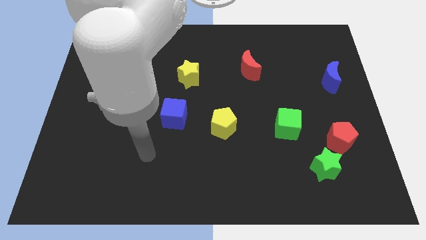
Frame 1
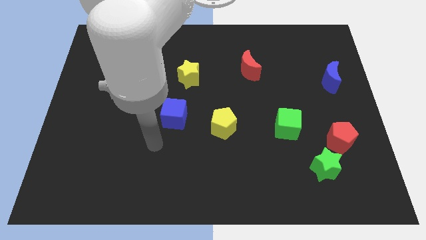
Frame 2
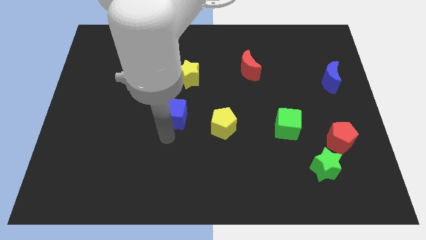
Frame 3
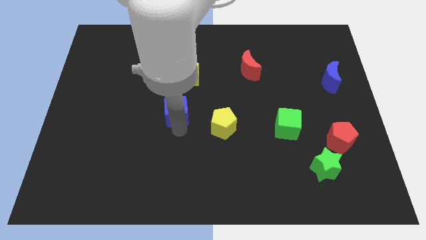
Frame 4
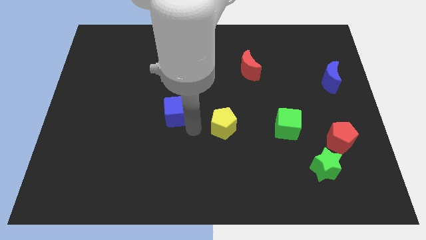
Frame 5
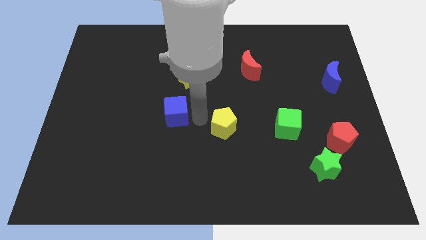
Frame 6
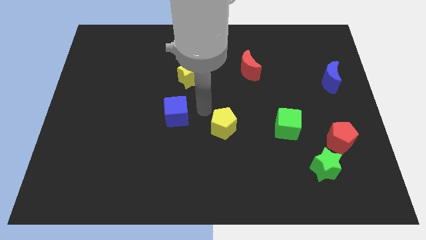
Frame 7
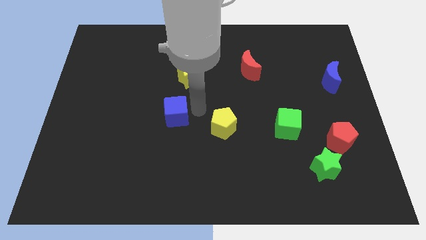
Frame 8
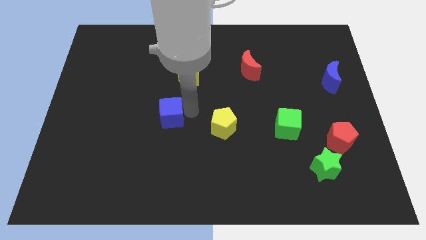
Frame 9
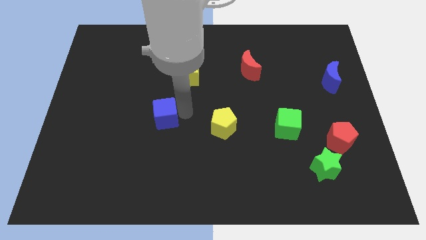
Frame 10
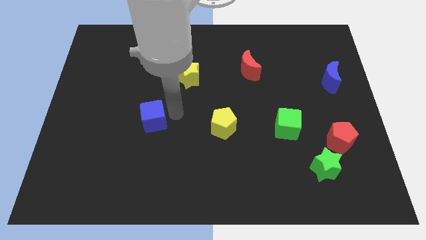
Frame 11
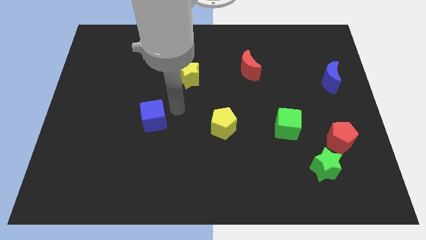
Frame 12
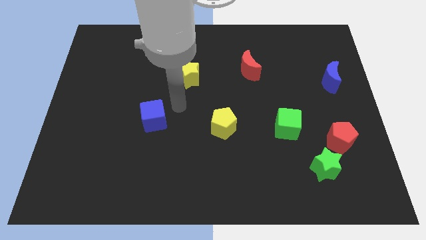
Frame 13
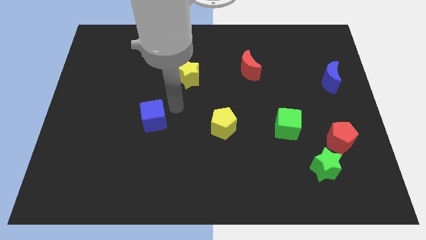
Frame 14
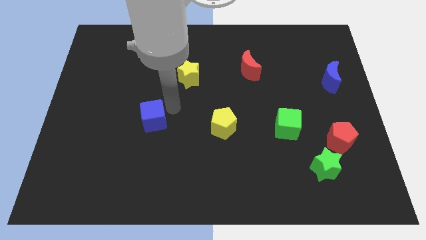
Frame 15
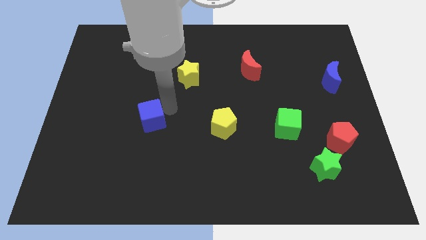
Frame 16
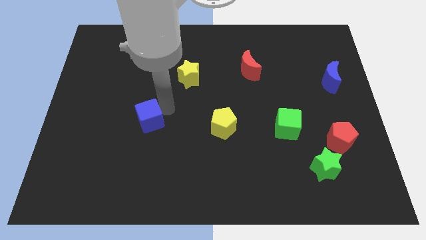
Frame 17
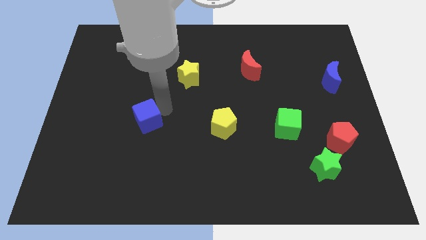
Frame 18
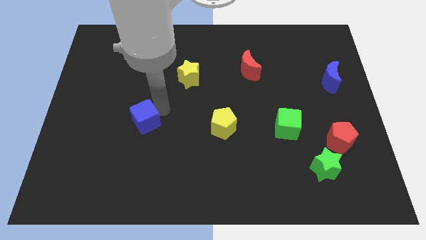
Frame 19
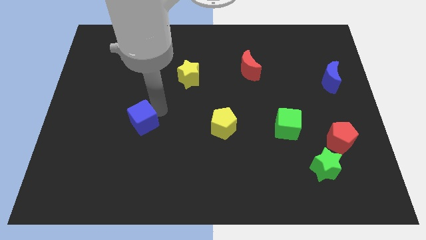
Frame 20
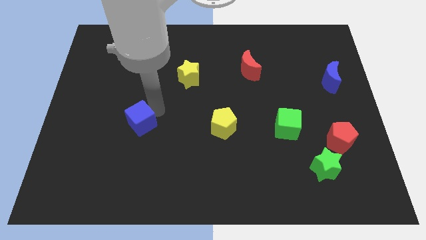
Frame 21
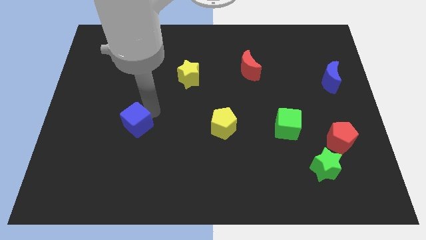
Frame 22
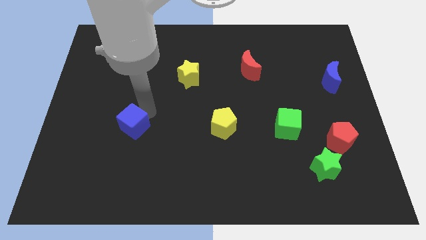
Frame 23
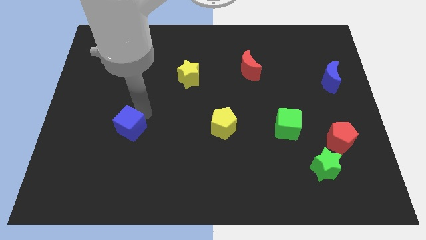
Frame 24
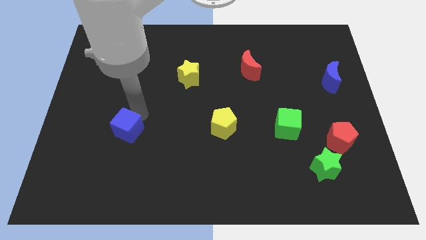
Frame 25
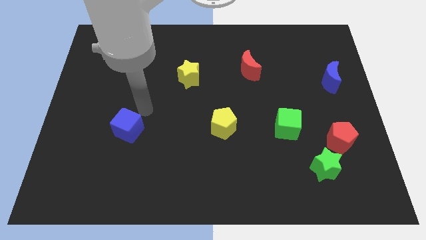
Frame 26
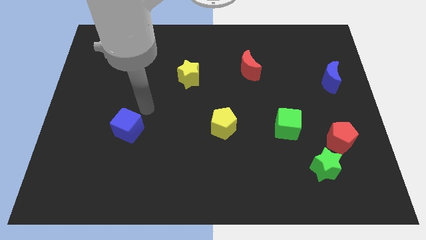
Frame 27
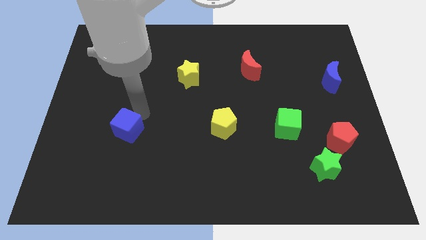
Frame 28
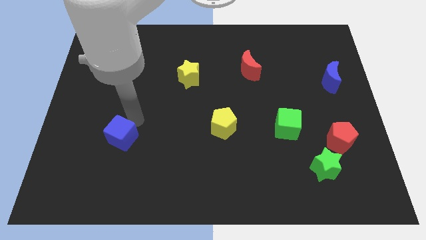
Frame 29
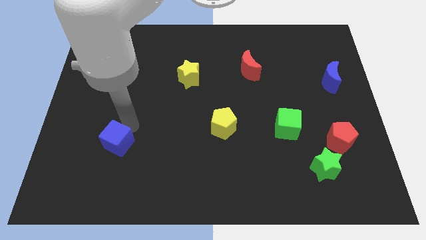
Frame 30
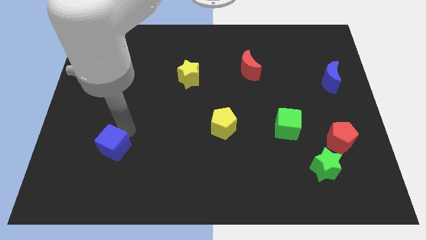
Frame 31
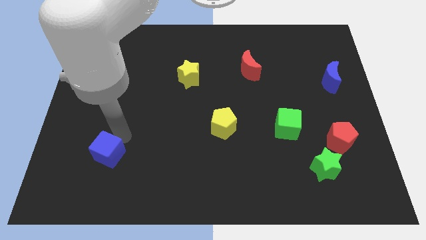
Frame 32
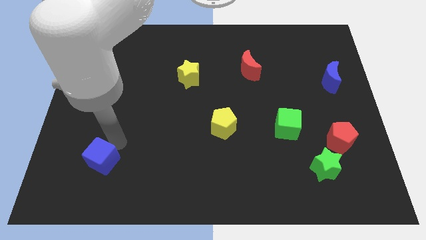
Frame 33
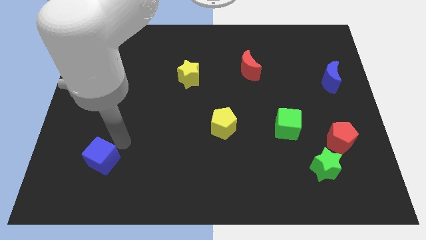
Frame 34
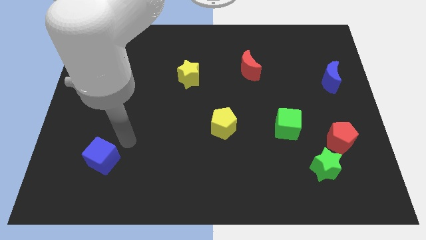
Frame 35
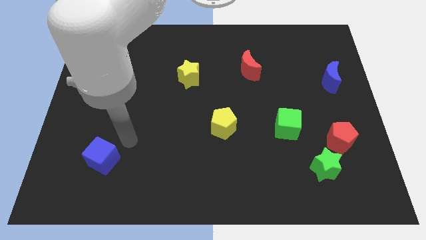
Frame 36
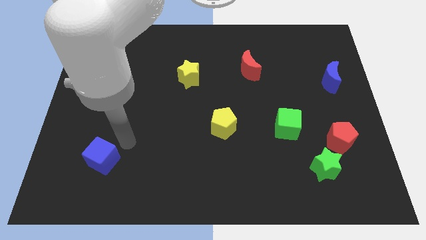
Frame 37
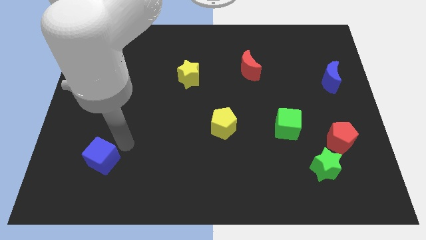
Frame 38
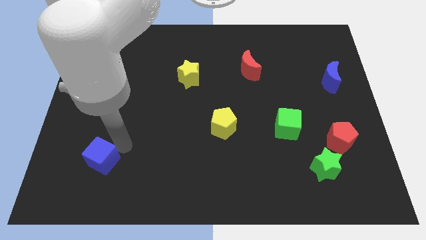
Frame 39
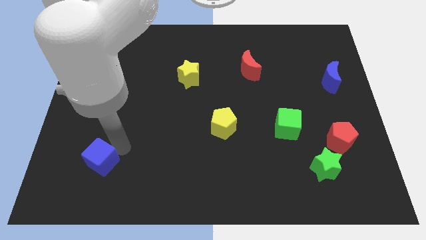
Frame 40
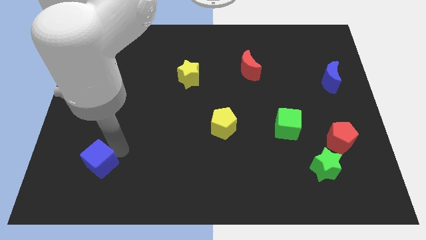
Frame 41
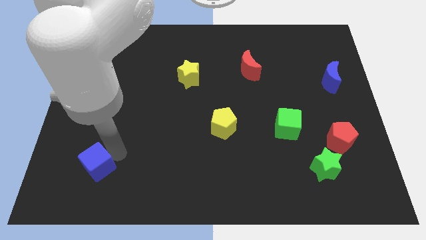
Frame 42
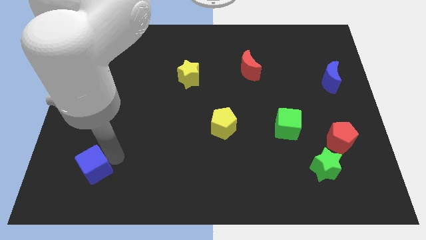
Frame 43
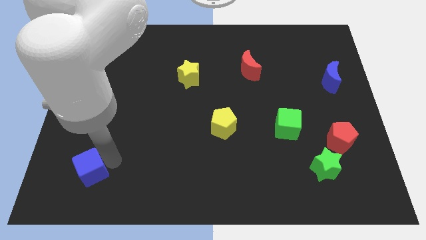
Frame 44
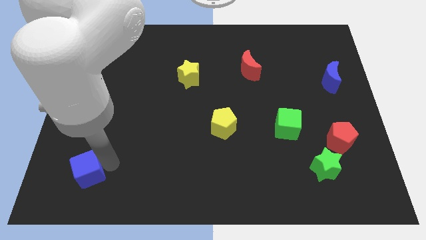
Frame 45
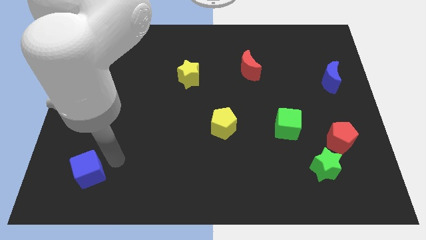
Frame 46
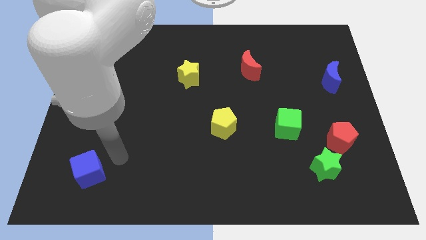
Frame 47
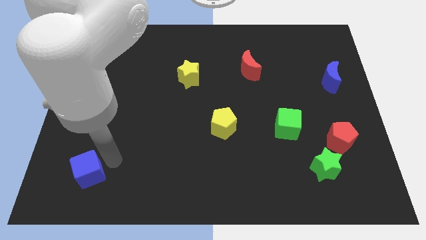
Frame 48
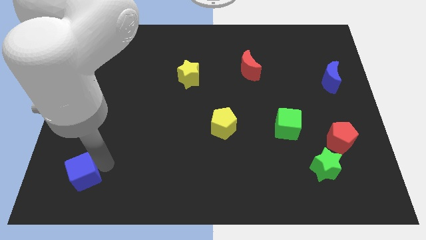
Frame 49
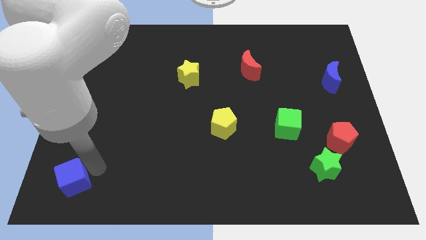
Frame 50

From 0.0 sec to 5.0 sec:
move the blue cube to the bottom left
